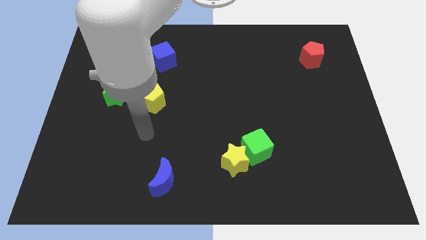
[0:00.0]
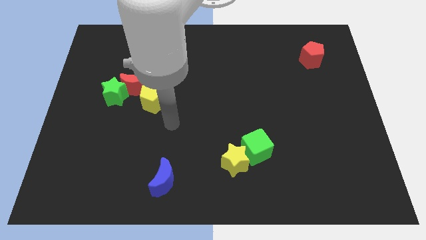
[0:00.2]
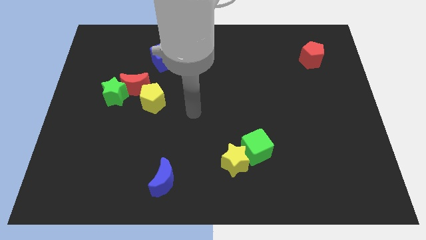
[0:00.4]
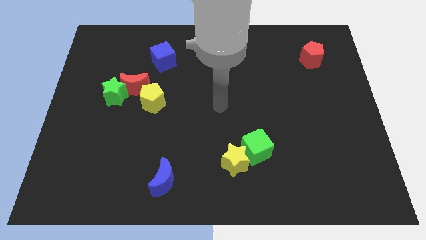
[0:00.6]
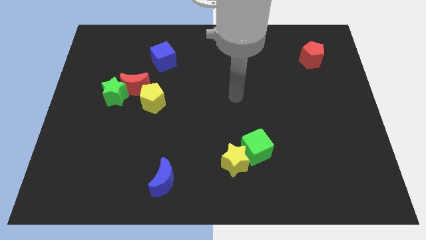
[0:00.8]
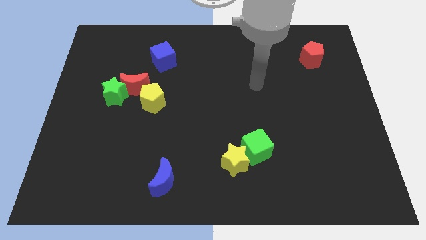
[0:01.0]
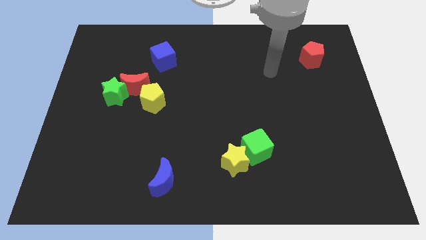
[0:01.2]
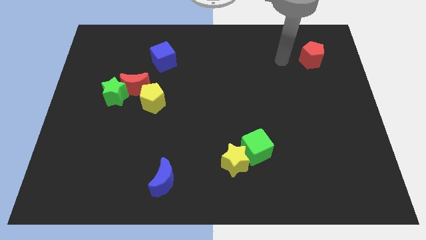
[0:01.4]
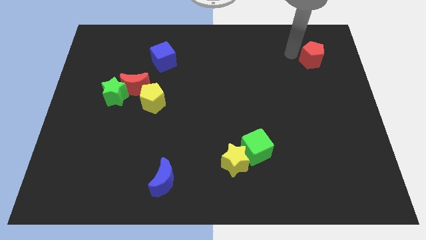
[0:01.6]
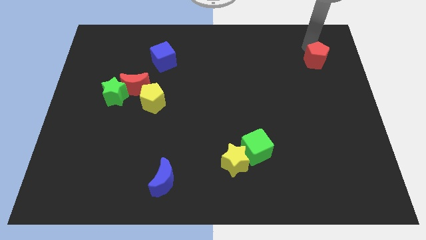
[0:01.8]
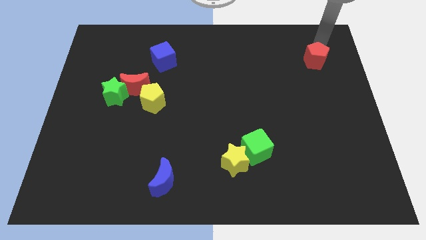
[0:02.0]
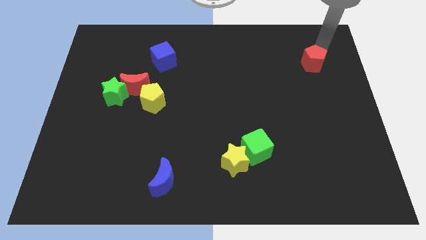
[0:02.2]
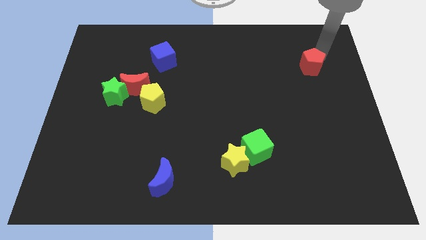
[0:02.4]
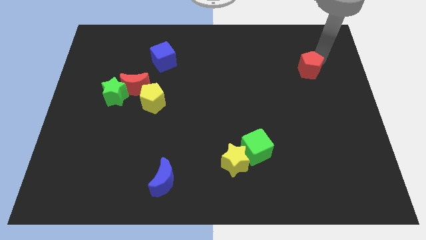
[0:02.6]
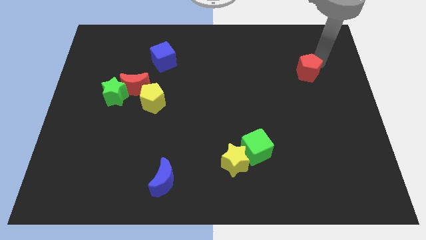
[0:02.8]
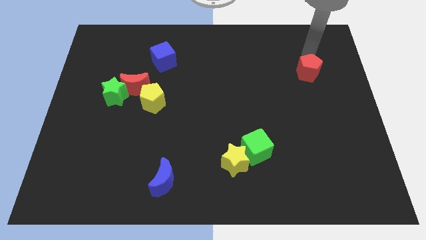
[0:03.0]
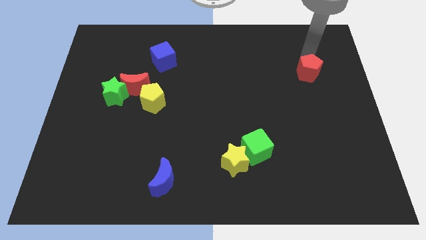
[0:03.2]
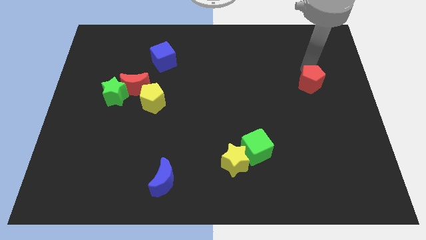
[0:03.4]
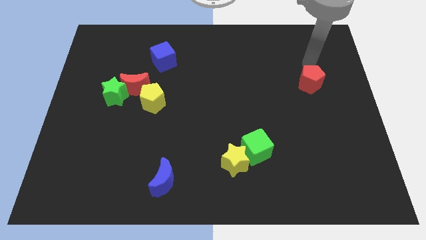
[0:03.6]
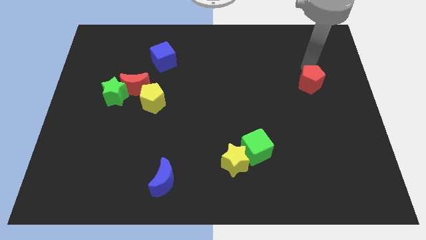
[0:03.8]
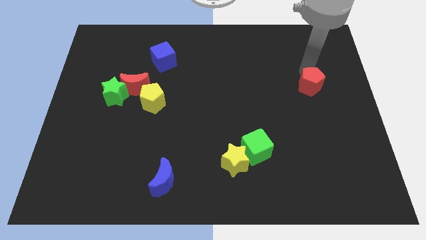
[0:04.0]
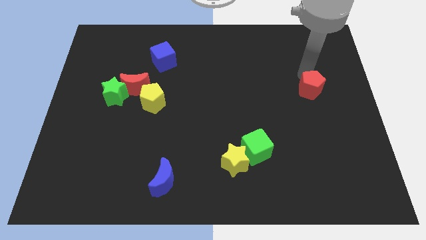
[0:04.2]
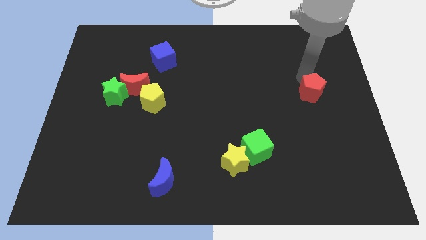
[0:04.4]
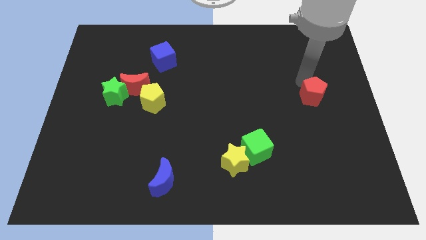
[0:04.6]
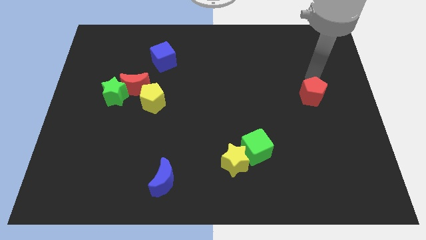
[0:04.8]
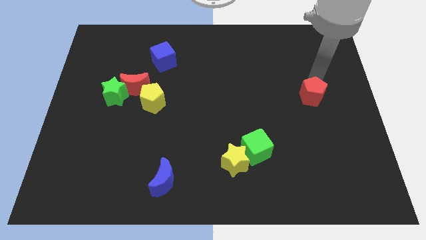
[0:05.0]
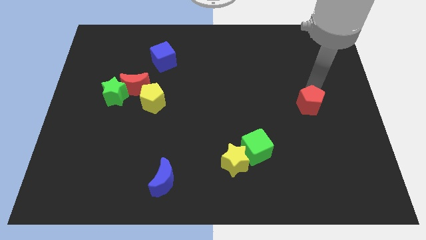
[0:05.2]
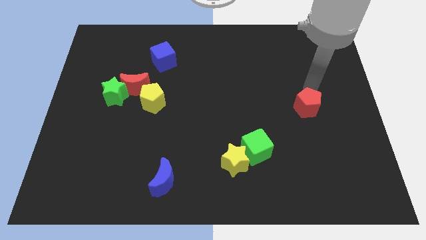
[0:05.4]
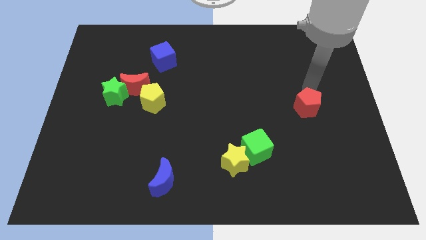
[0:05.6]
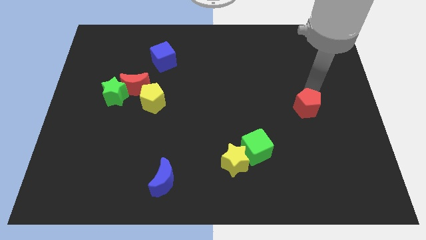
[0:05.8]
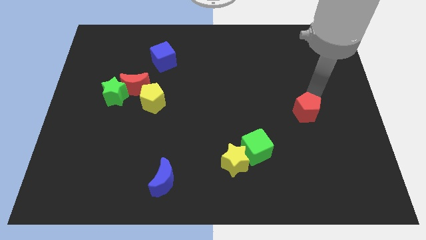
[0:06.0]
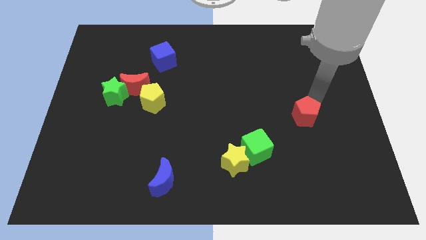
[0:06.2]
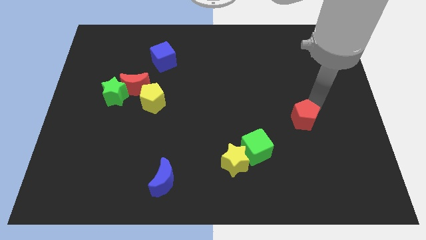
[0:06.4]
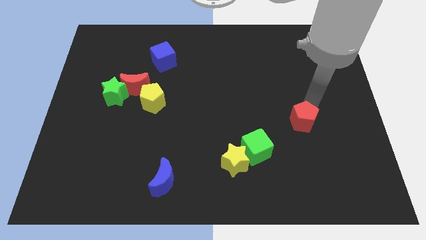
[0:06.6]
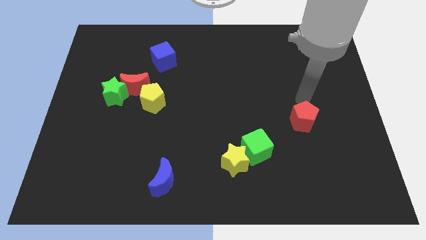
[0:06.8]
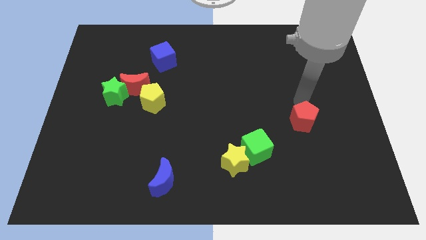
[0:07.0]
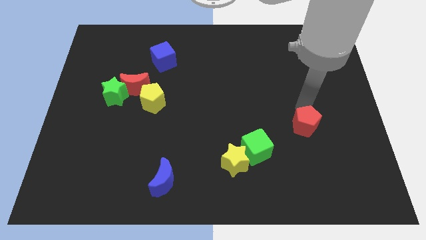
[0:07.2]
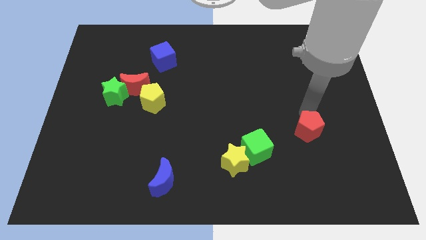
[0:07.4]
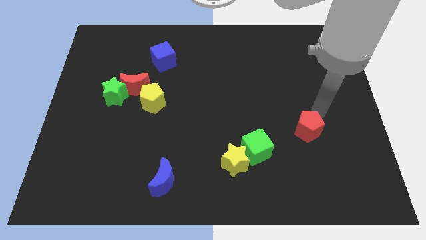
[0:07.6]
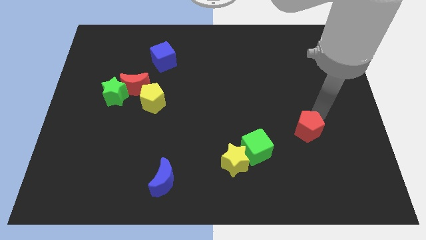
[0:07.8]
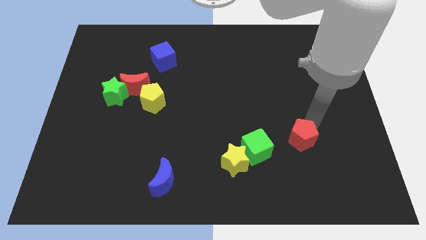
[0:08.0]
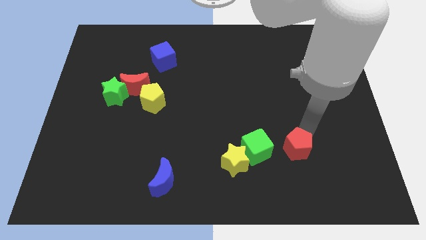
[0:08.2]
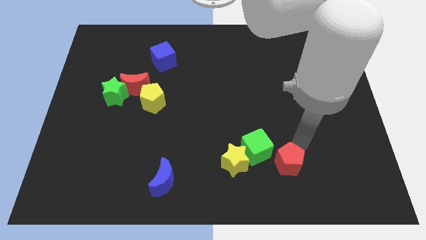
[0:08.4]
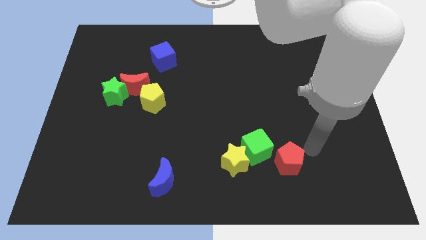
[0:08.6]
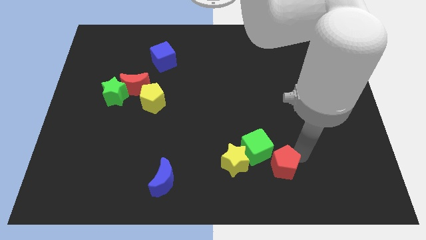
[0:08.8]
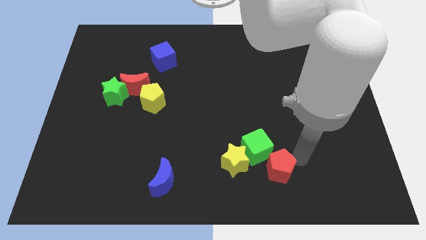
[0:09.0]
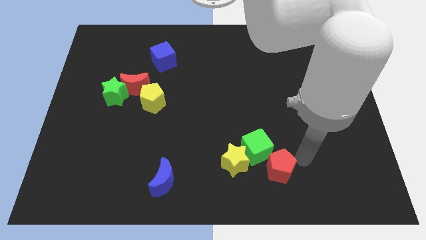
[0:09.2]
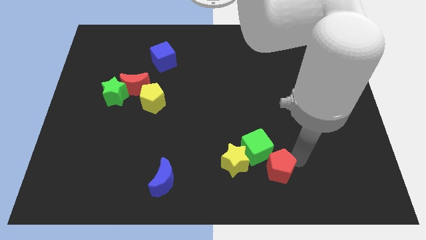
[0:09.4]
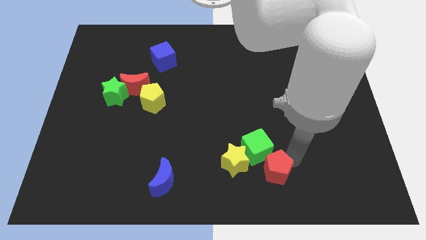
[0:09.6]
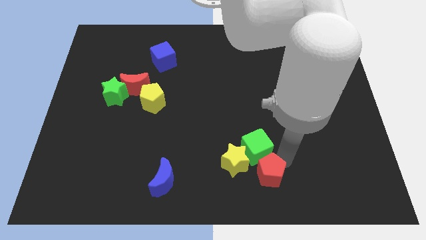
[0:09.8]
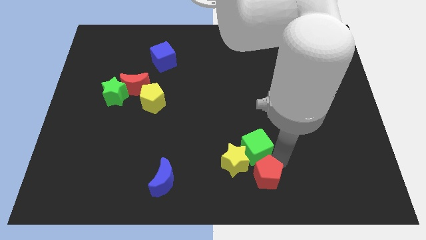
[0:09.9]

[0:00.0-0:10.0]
slide the red pentagon to the bottom side

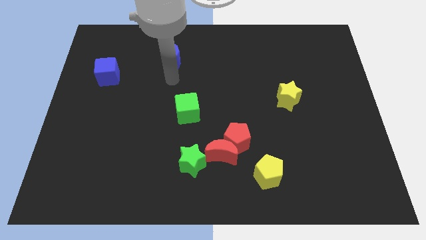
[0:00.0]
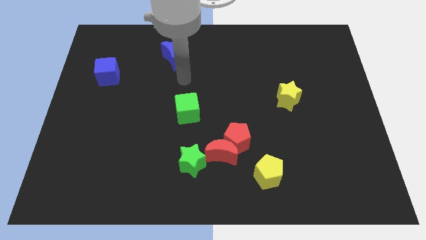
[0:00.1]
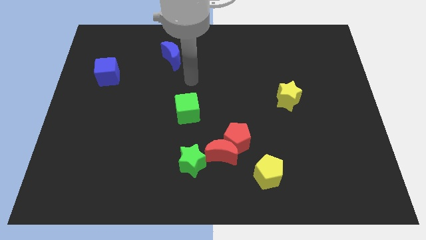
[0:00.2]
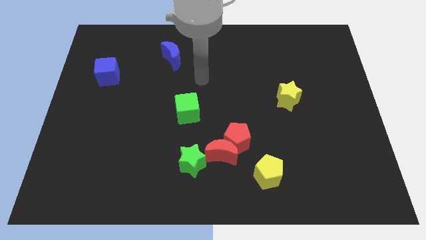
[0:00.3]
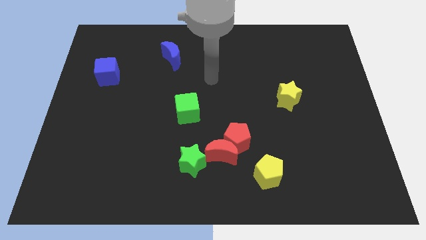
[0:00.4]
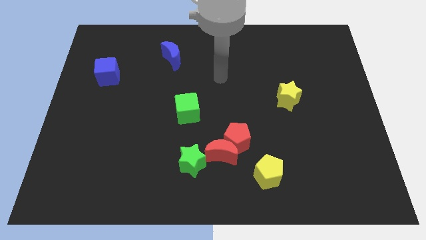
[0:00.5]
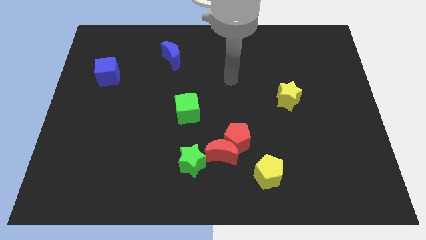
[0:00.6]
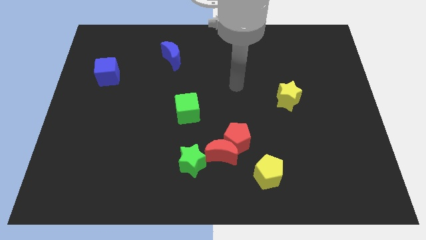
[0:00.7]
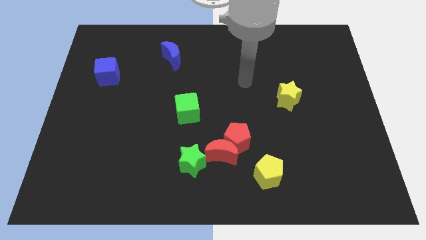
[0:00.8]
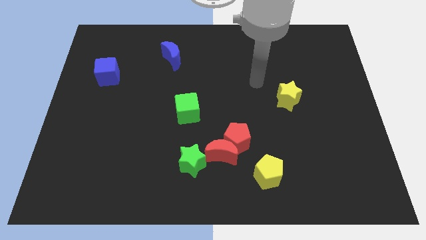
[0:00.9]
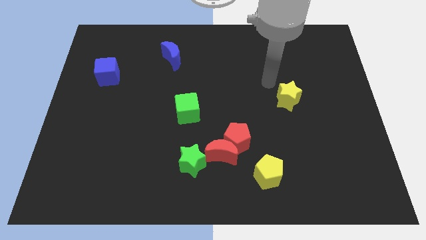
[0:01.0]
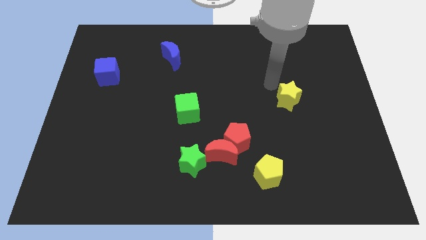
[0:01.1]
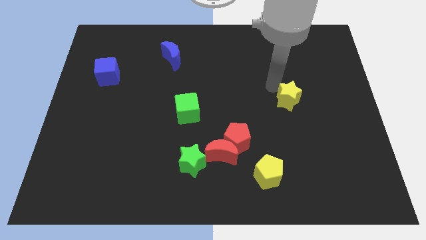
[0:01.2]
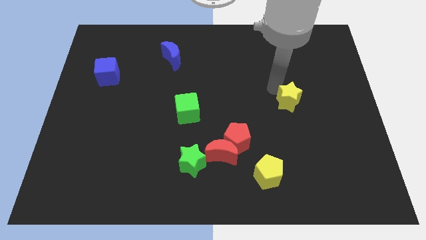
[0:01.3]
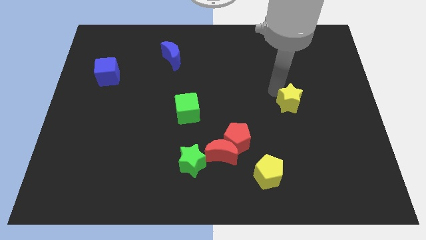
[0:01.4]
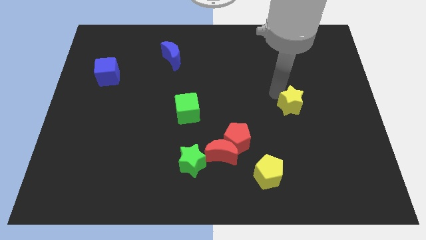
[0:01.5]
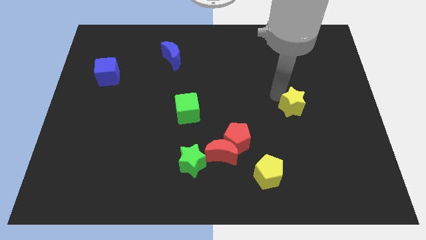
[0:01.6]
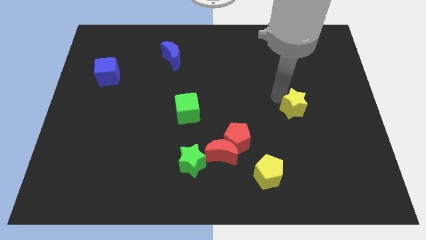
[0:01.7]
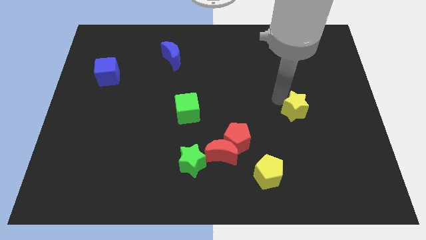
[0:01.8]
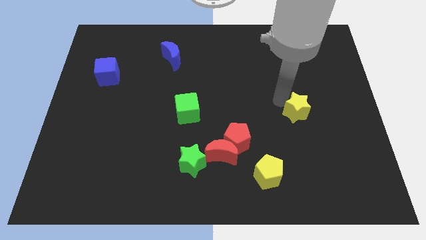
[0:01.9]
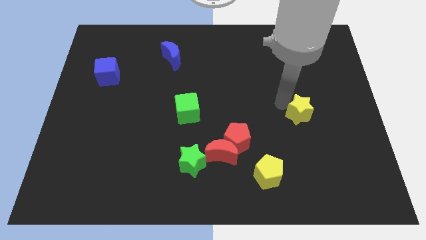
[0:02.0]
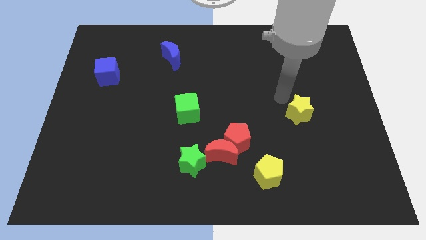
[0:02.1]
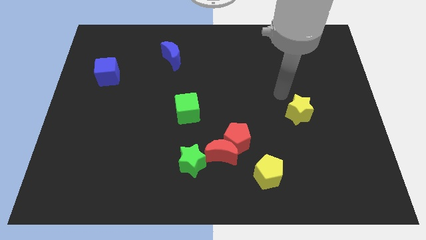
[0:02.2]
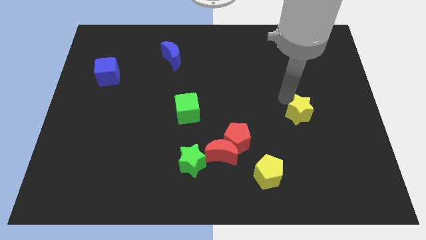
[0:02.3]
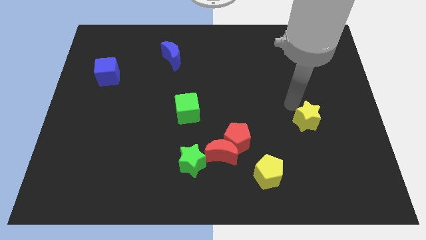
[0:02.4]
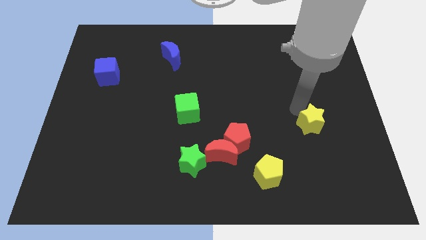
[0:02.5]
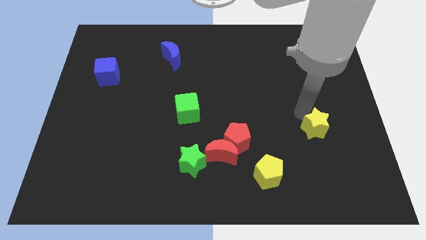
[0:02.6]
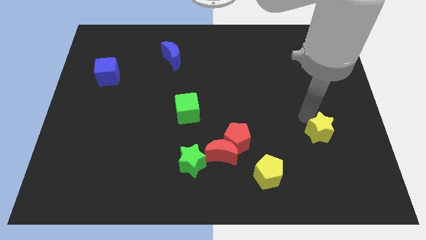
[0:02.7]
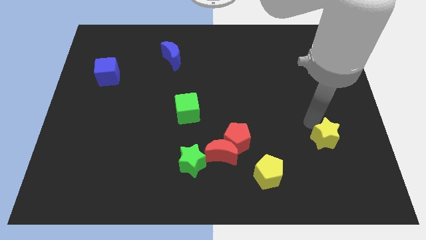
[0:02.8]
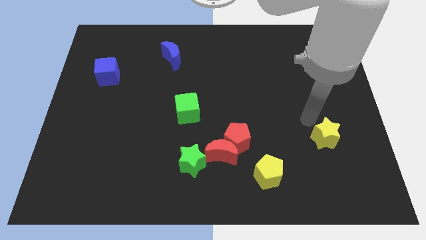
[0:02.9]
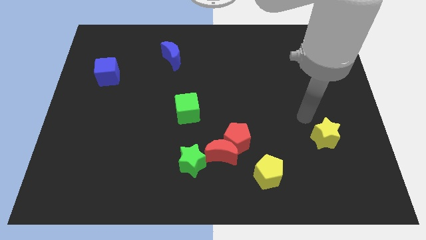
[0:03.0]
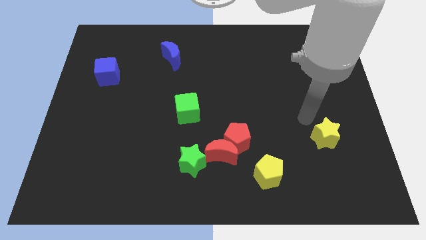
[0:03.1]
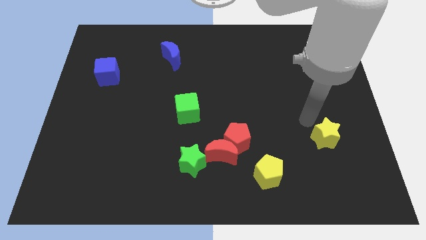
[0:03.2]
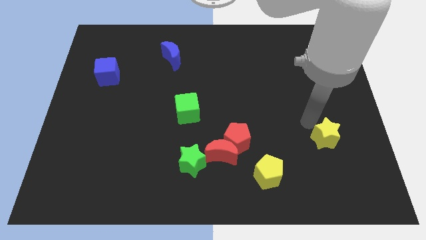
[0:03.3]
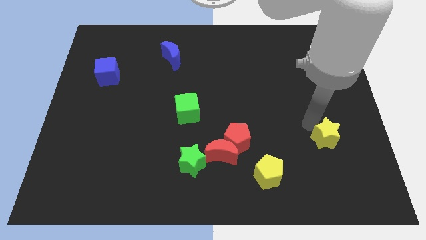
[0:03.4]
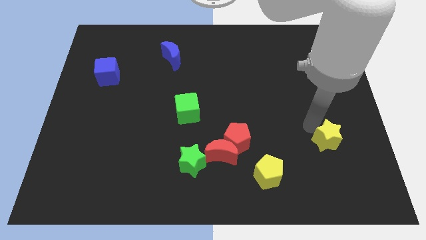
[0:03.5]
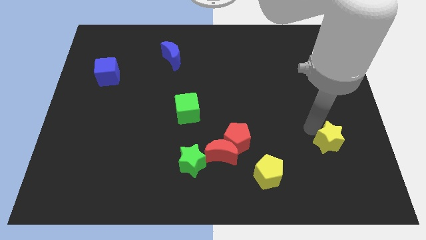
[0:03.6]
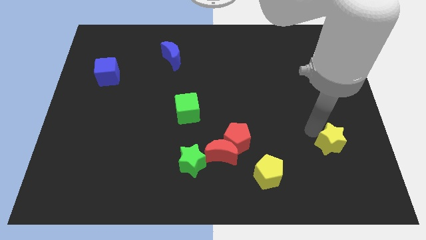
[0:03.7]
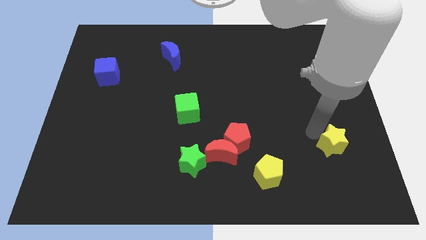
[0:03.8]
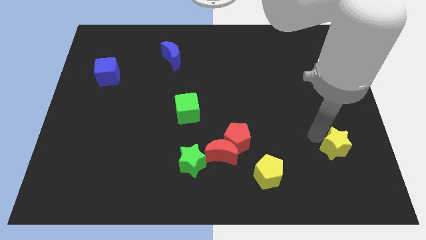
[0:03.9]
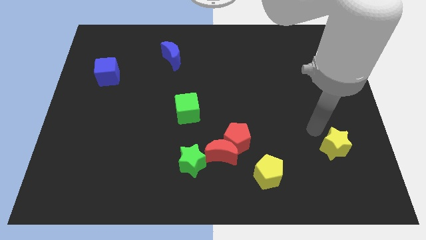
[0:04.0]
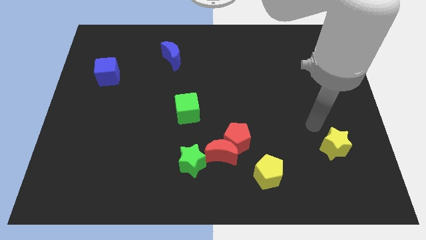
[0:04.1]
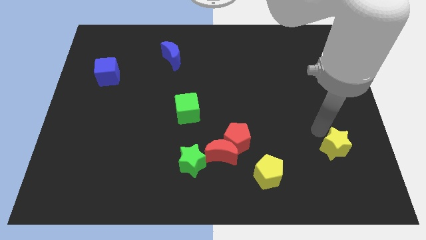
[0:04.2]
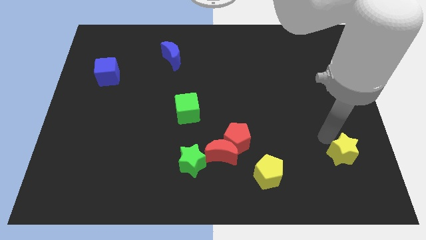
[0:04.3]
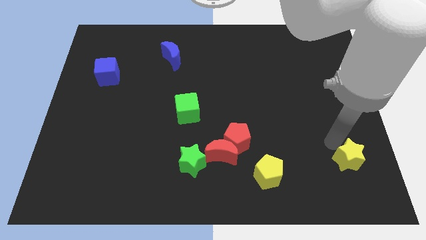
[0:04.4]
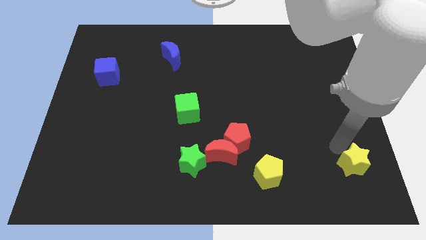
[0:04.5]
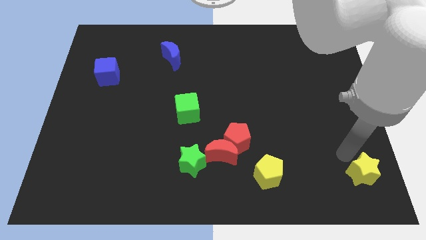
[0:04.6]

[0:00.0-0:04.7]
move the yellow star to the bottom right
